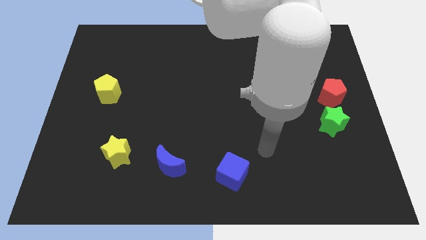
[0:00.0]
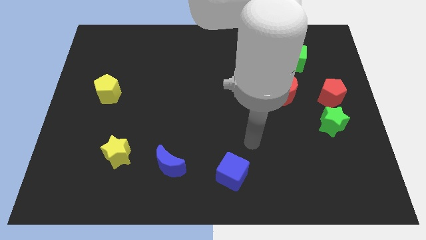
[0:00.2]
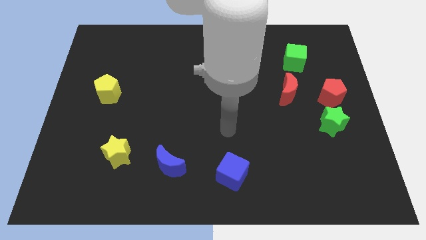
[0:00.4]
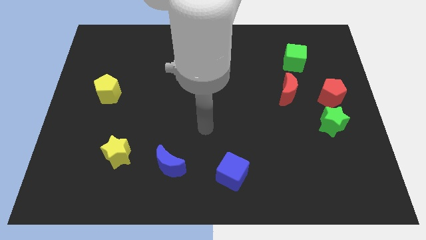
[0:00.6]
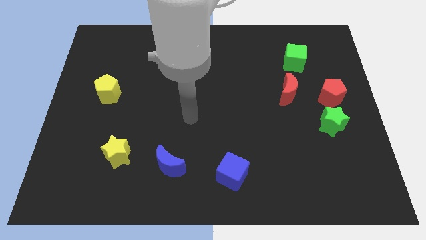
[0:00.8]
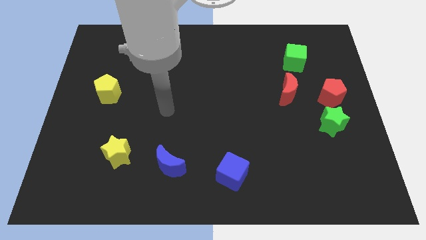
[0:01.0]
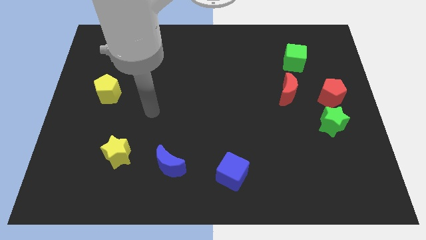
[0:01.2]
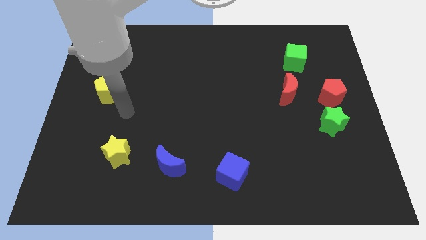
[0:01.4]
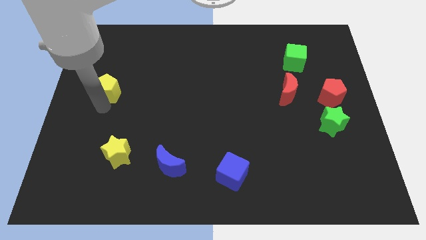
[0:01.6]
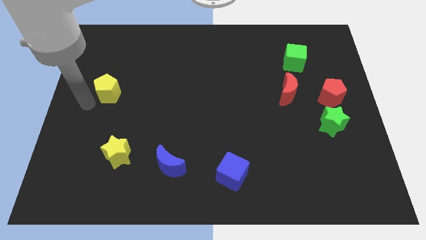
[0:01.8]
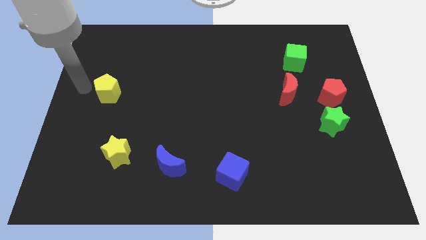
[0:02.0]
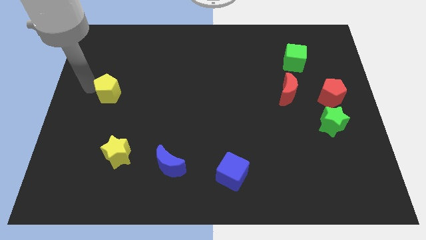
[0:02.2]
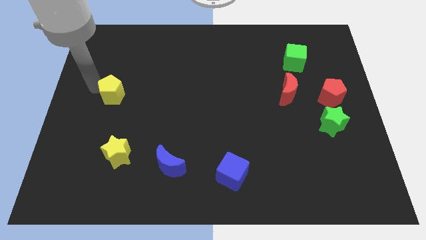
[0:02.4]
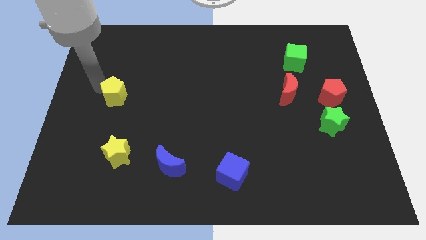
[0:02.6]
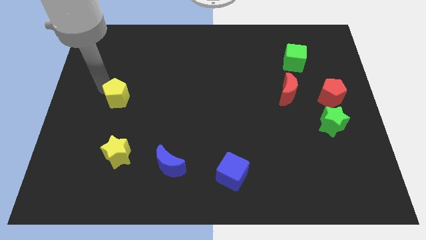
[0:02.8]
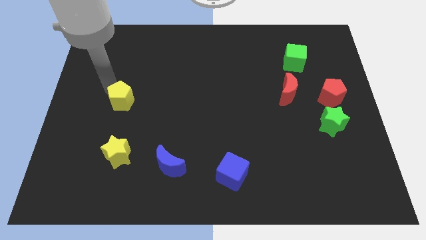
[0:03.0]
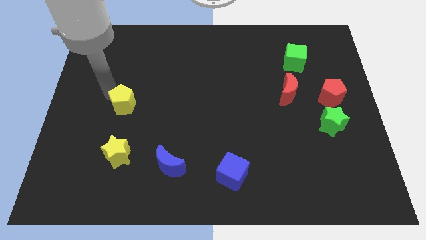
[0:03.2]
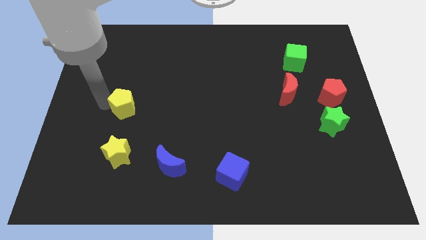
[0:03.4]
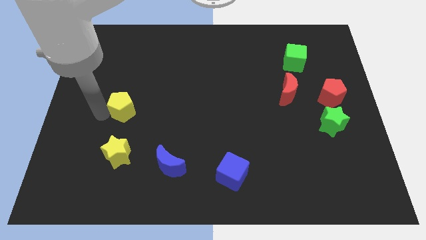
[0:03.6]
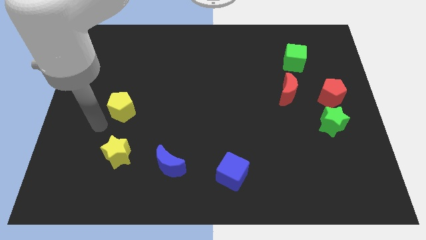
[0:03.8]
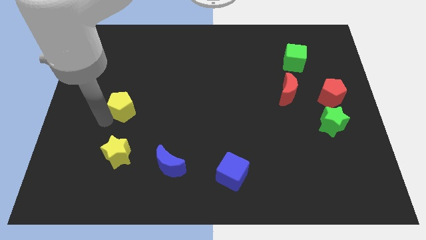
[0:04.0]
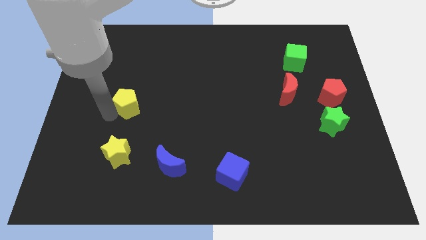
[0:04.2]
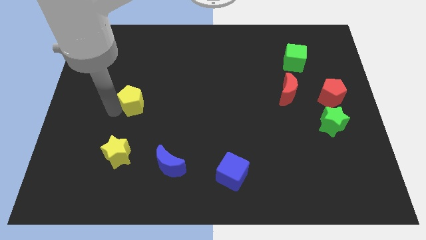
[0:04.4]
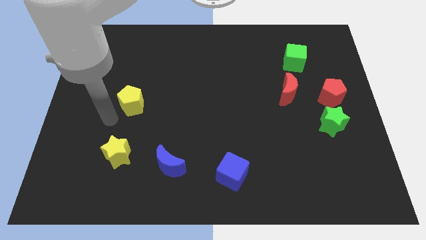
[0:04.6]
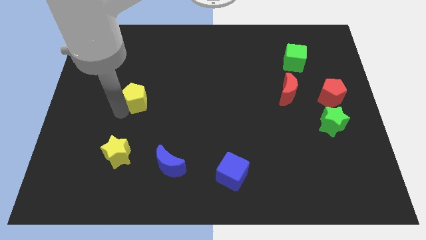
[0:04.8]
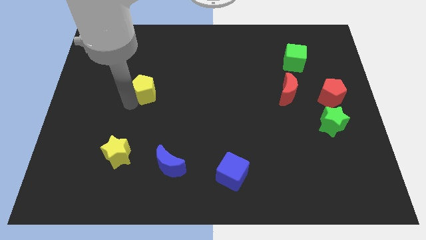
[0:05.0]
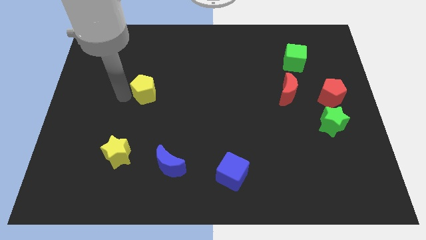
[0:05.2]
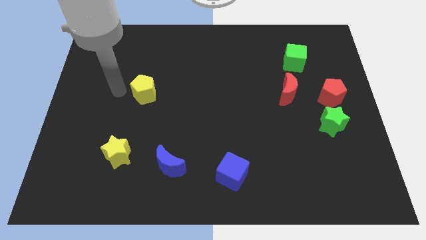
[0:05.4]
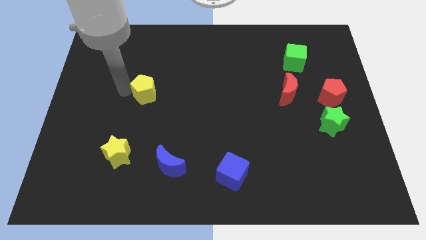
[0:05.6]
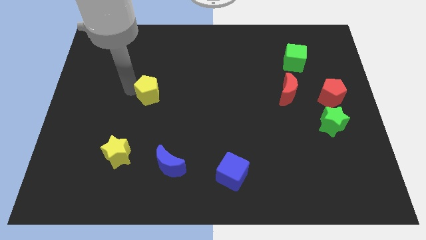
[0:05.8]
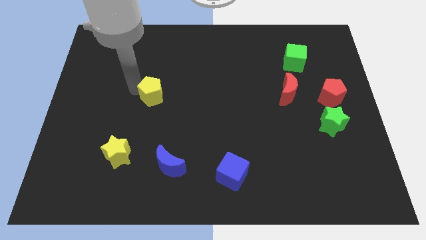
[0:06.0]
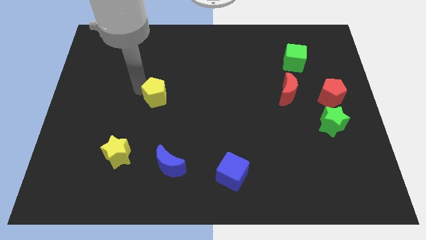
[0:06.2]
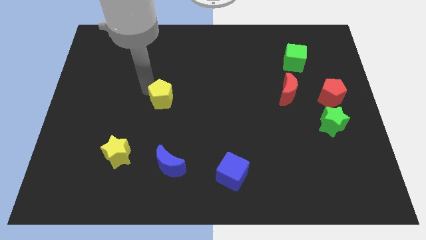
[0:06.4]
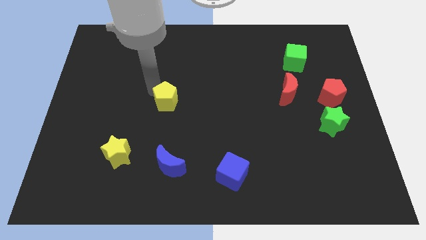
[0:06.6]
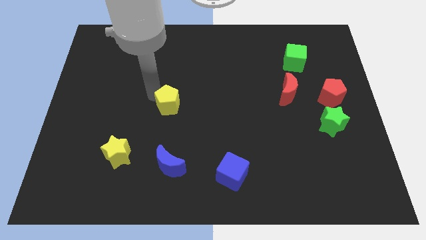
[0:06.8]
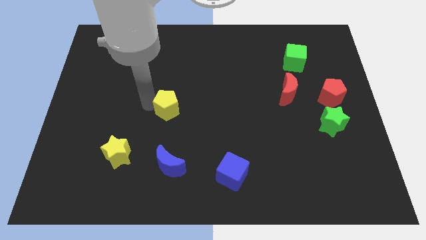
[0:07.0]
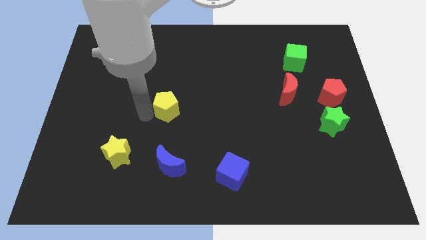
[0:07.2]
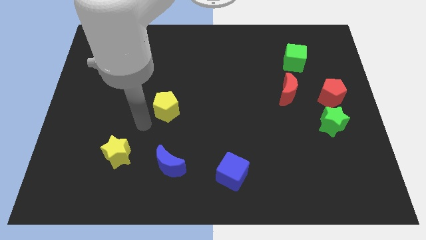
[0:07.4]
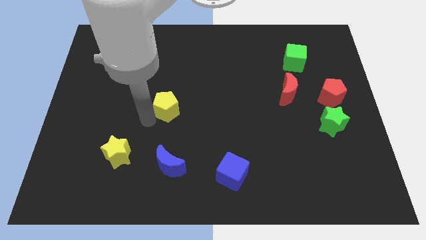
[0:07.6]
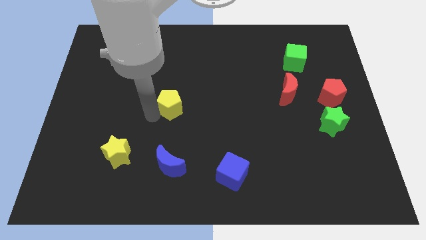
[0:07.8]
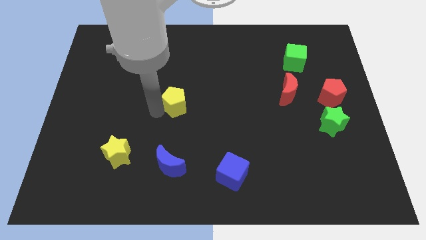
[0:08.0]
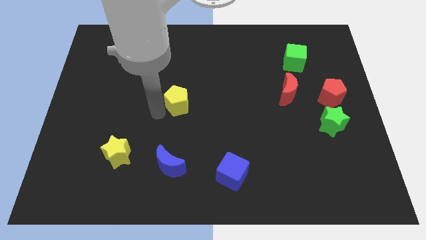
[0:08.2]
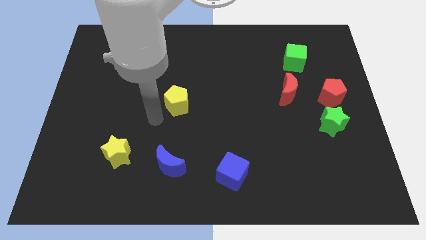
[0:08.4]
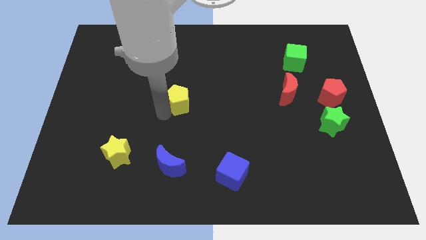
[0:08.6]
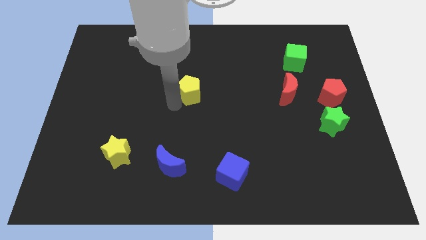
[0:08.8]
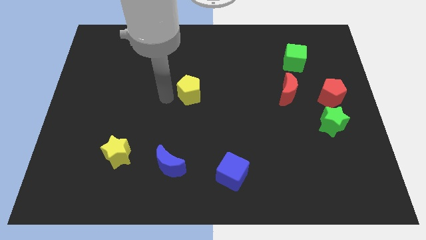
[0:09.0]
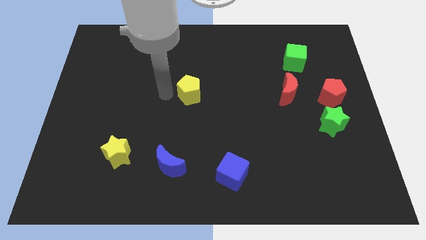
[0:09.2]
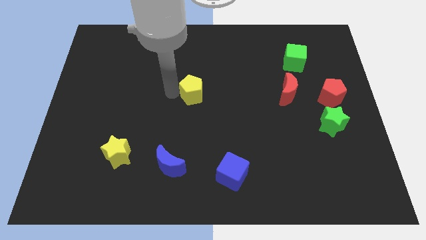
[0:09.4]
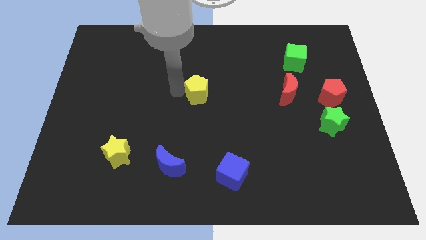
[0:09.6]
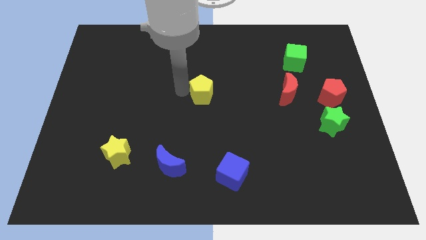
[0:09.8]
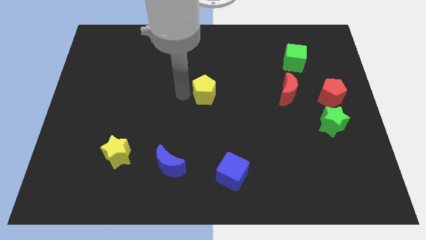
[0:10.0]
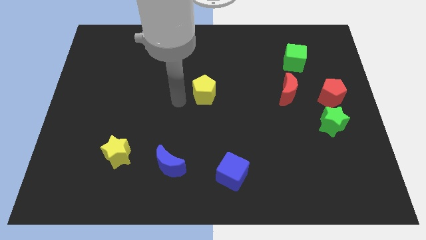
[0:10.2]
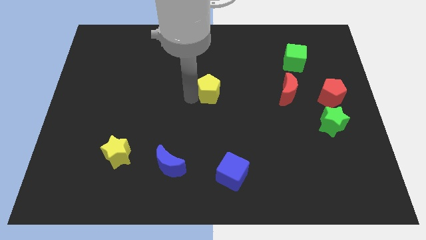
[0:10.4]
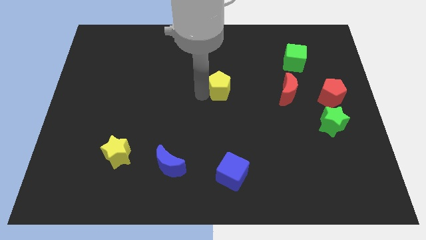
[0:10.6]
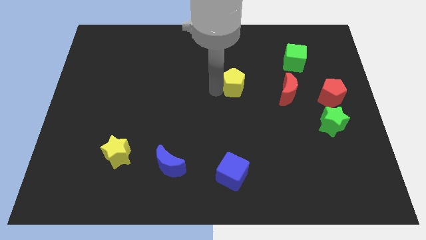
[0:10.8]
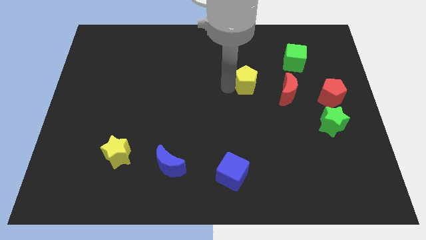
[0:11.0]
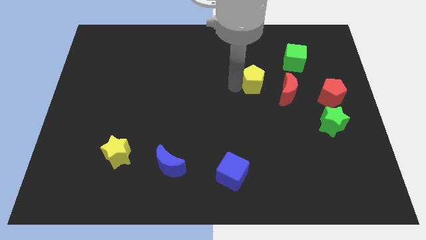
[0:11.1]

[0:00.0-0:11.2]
put the yellow pentagon to the top left of the red moon
